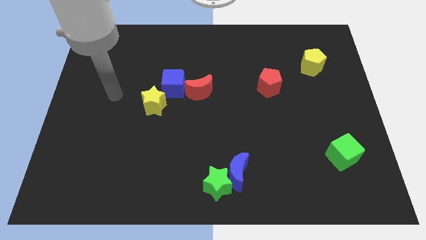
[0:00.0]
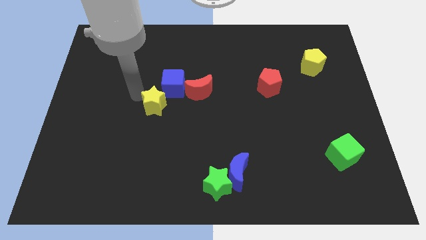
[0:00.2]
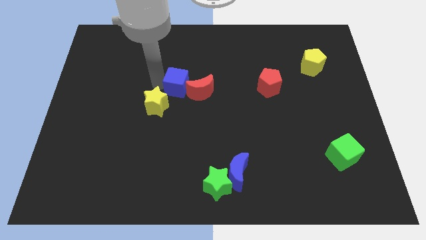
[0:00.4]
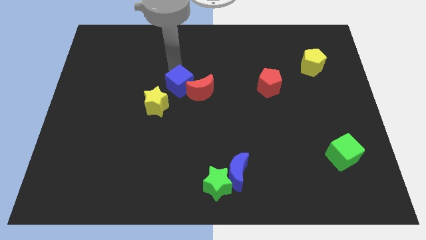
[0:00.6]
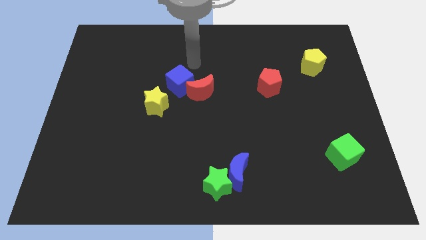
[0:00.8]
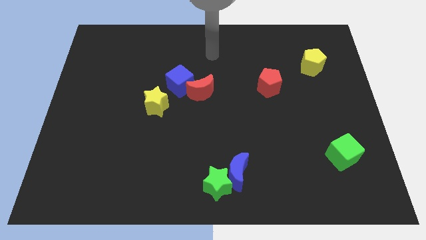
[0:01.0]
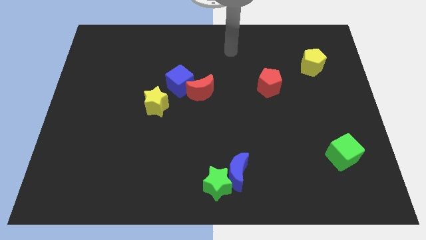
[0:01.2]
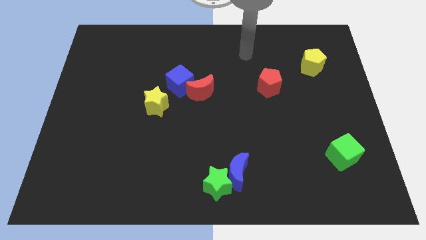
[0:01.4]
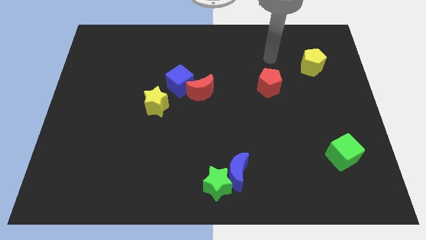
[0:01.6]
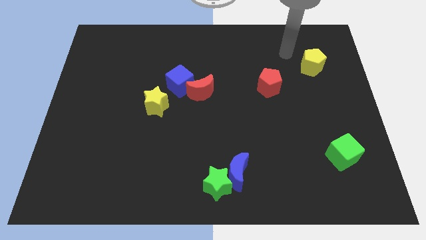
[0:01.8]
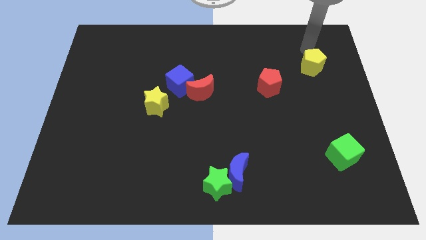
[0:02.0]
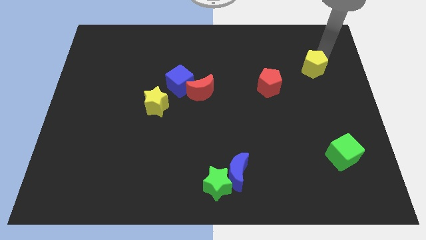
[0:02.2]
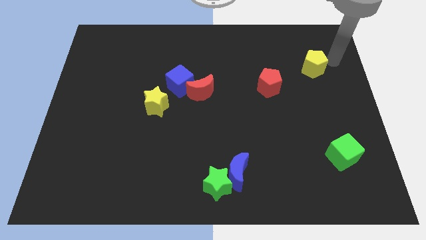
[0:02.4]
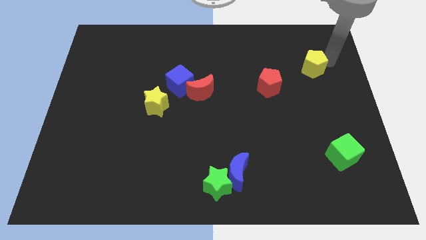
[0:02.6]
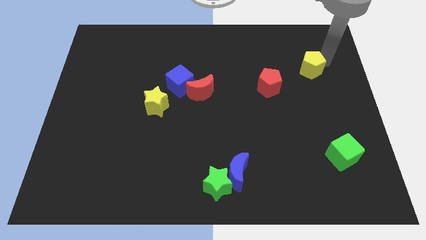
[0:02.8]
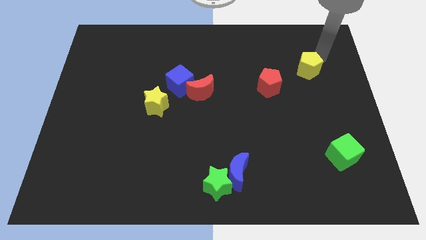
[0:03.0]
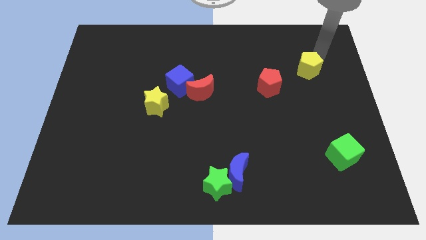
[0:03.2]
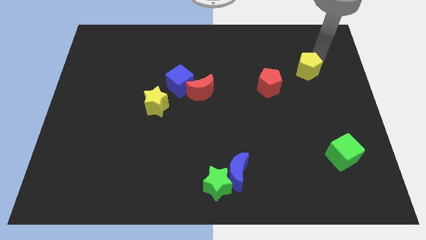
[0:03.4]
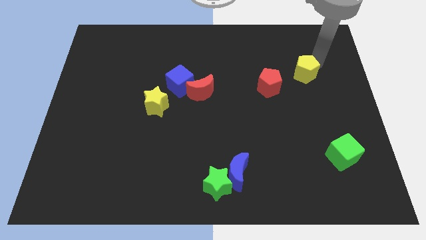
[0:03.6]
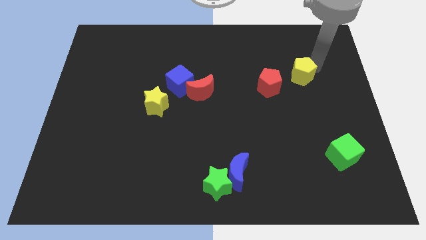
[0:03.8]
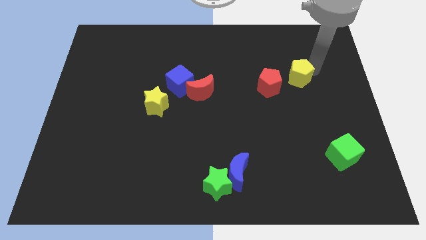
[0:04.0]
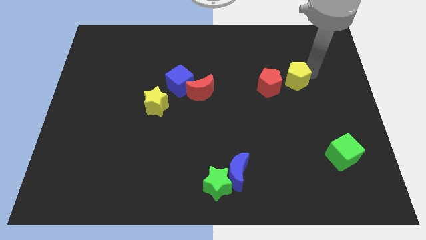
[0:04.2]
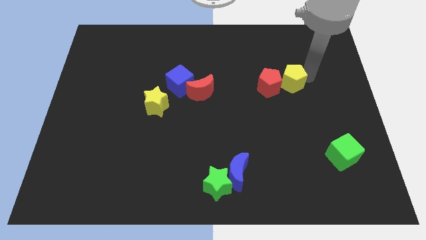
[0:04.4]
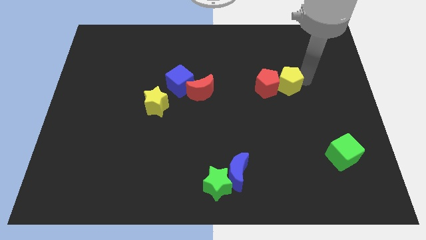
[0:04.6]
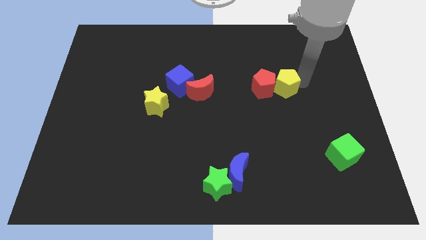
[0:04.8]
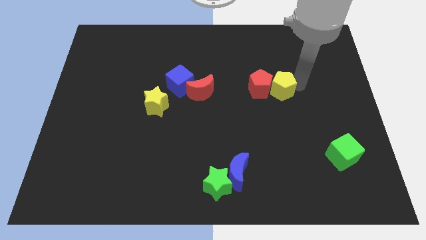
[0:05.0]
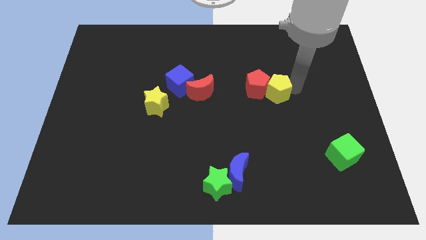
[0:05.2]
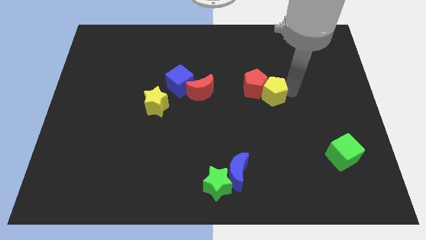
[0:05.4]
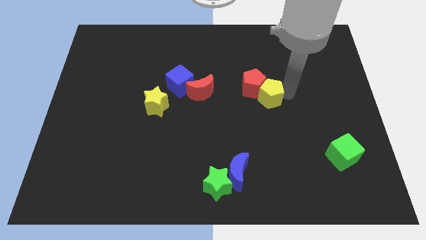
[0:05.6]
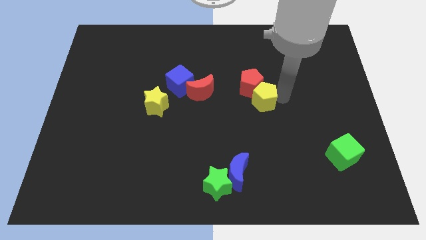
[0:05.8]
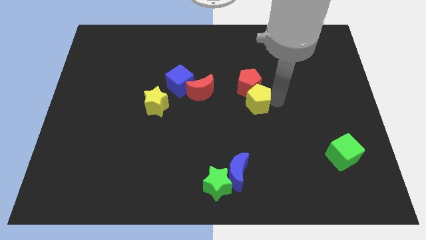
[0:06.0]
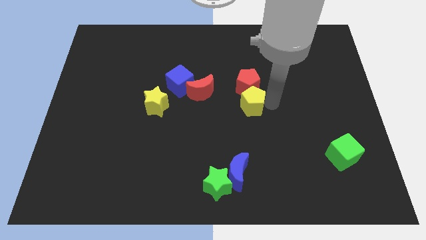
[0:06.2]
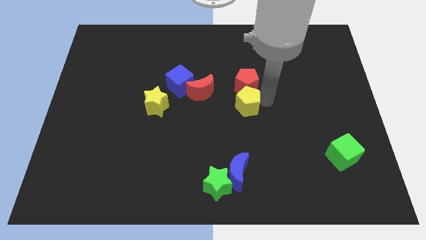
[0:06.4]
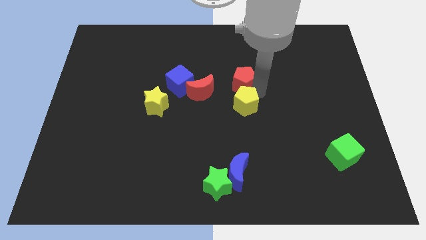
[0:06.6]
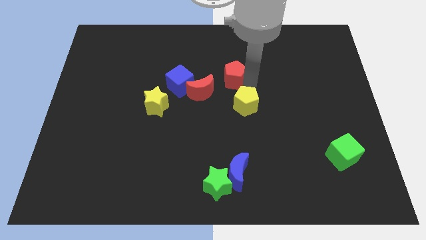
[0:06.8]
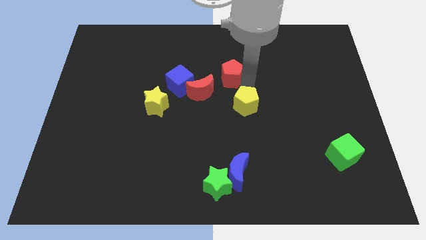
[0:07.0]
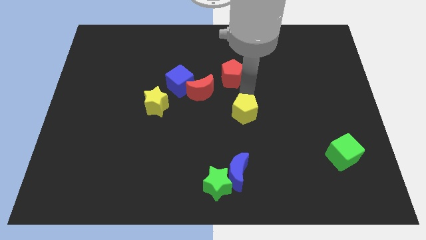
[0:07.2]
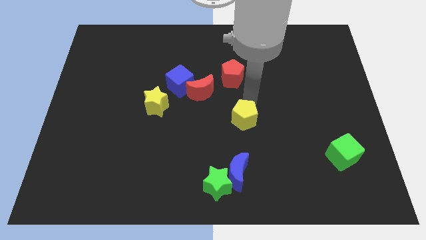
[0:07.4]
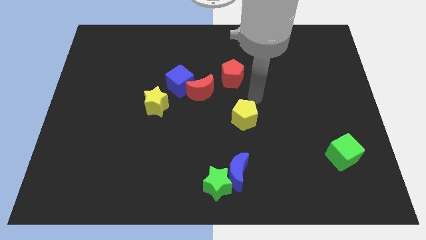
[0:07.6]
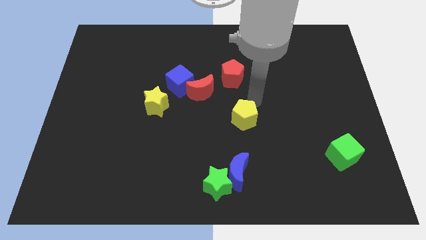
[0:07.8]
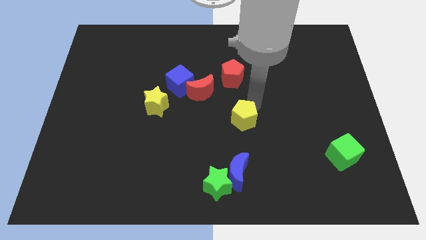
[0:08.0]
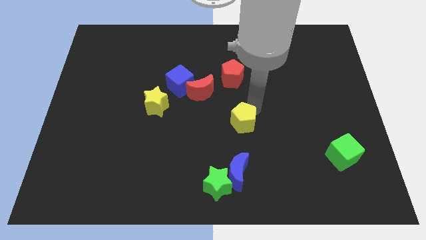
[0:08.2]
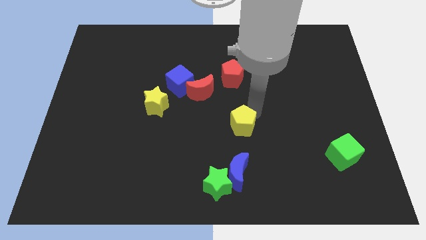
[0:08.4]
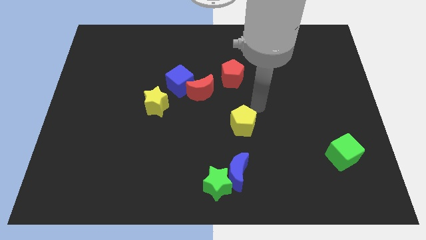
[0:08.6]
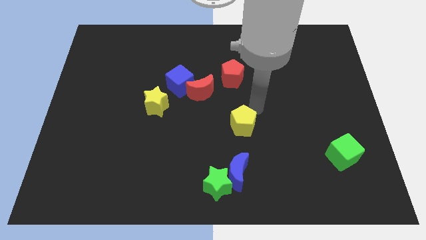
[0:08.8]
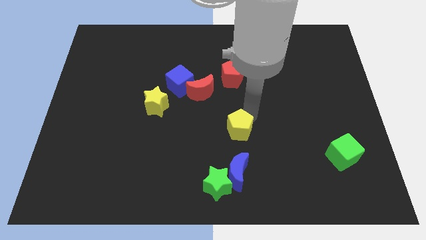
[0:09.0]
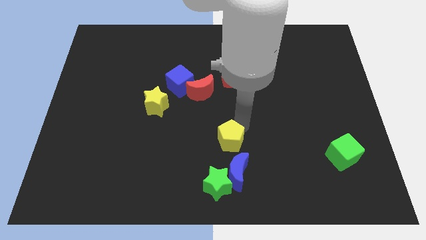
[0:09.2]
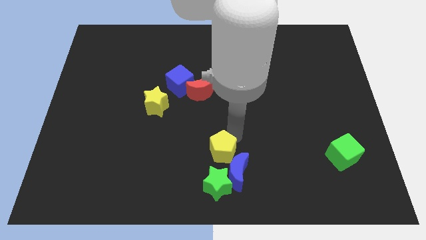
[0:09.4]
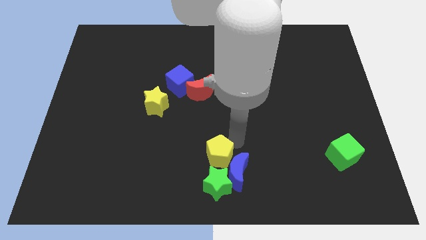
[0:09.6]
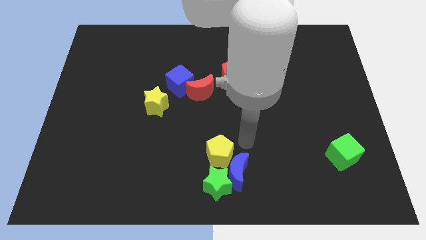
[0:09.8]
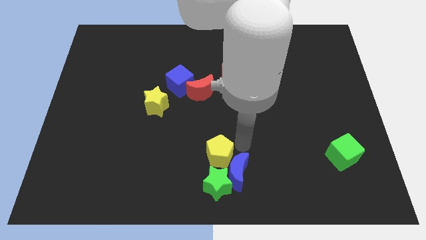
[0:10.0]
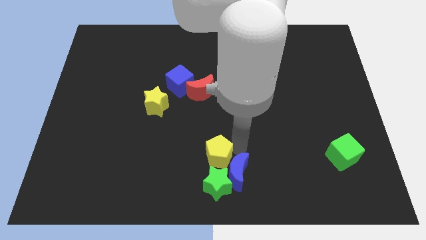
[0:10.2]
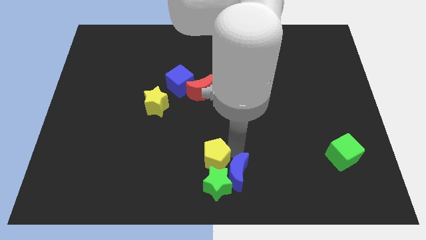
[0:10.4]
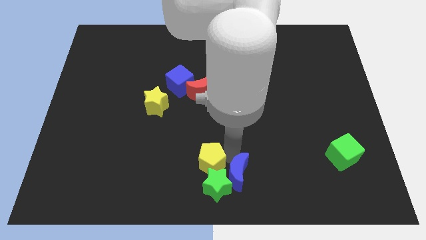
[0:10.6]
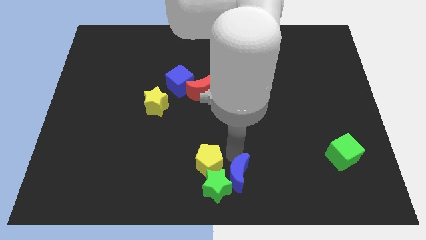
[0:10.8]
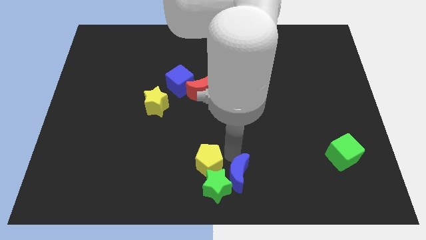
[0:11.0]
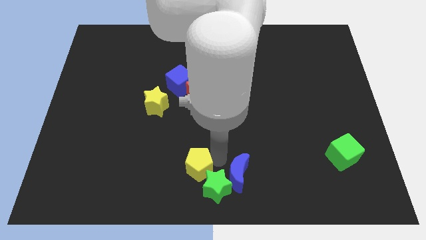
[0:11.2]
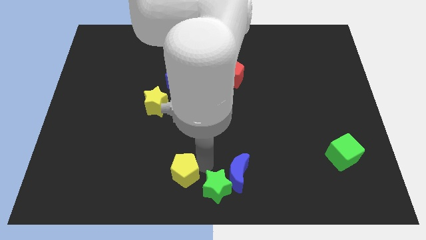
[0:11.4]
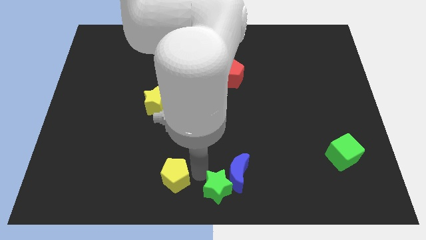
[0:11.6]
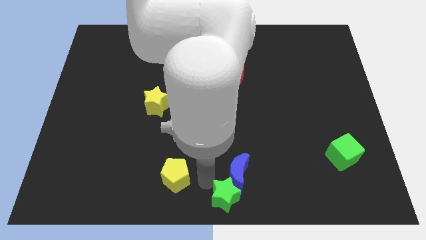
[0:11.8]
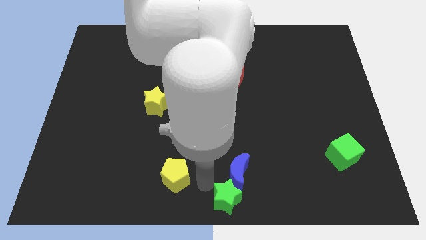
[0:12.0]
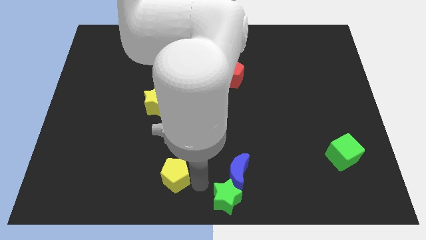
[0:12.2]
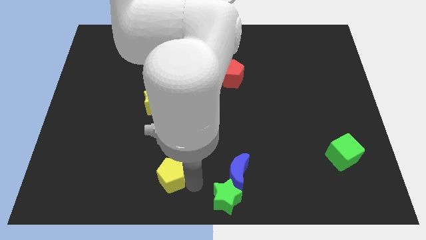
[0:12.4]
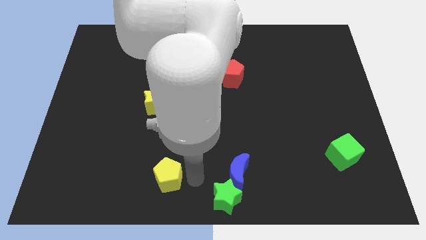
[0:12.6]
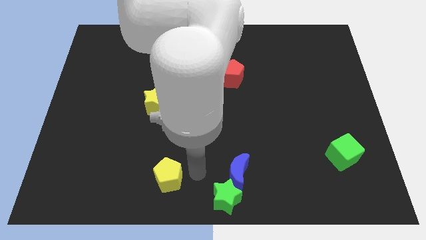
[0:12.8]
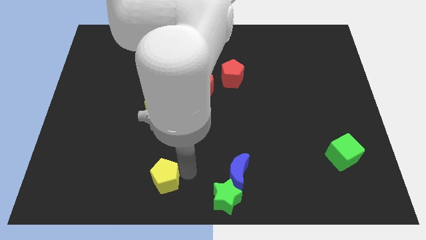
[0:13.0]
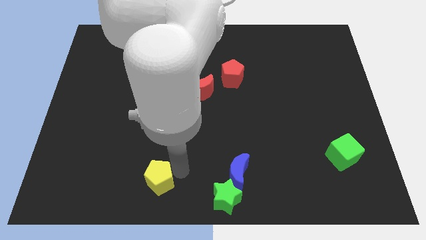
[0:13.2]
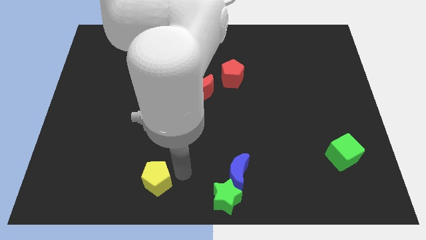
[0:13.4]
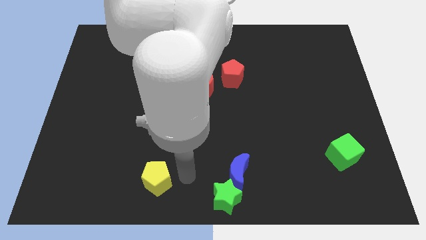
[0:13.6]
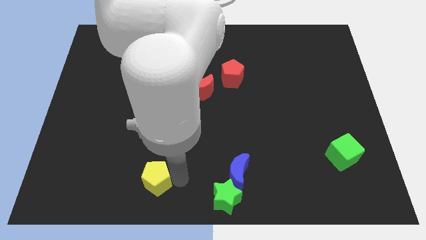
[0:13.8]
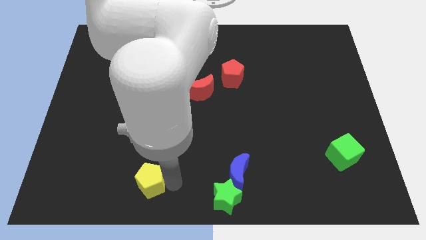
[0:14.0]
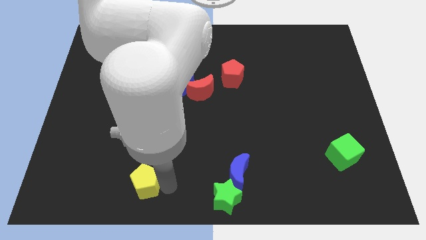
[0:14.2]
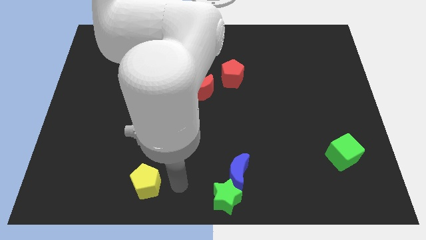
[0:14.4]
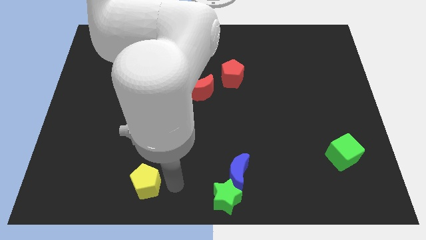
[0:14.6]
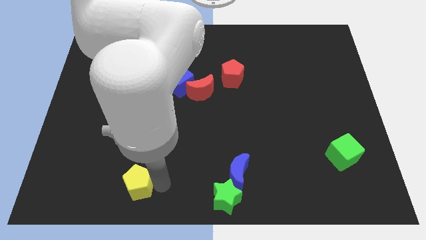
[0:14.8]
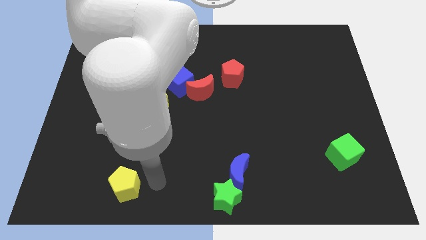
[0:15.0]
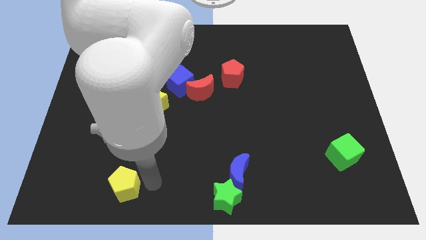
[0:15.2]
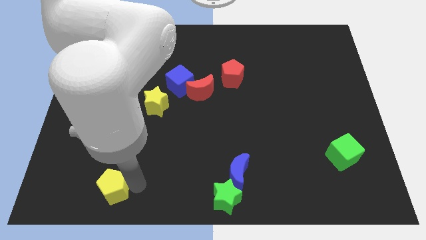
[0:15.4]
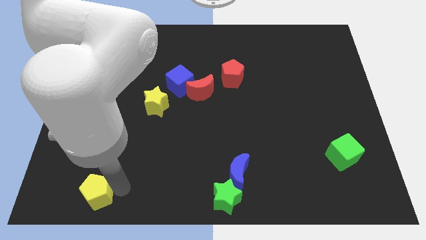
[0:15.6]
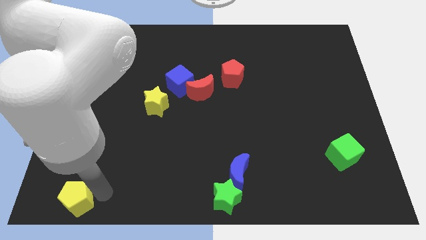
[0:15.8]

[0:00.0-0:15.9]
slide the yellow pentagon to the lower left corner
